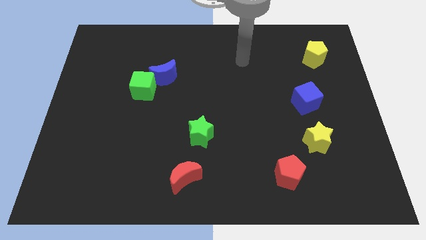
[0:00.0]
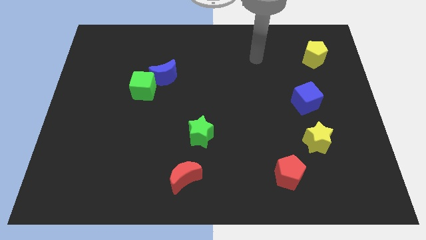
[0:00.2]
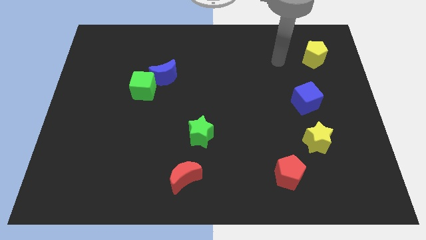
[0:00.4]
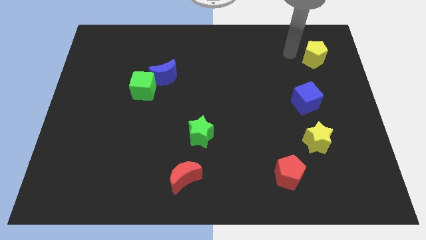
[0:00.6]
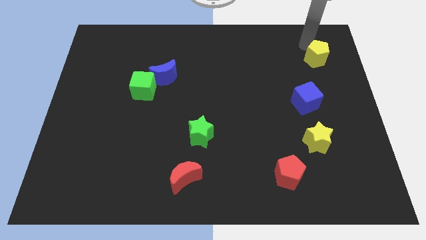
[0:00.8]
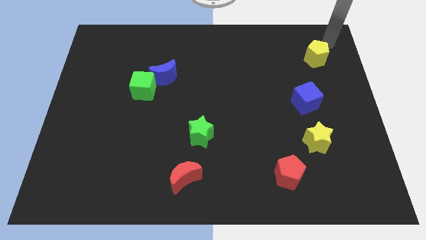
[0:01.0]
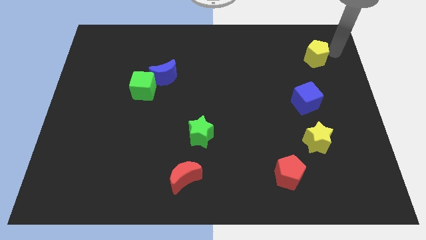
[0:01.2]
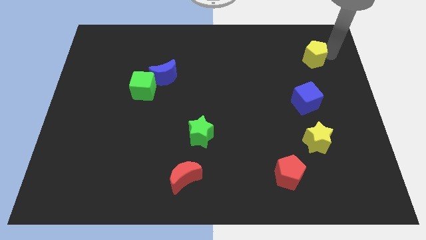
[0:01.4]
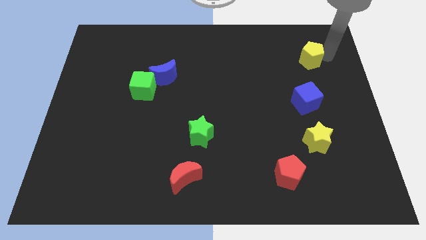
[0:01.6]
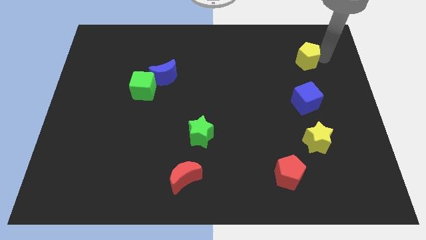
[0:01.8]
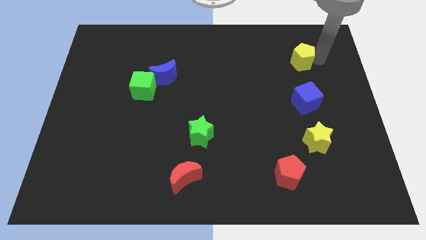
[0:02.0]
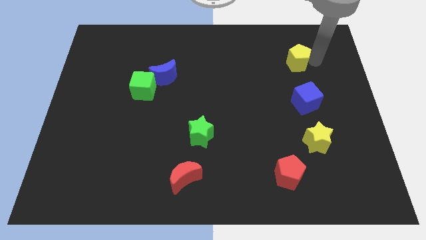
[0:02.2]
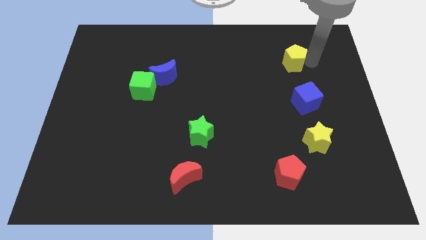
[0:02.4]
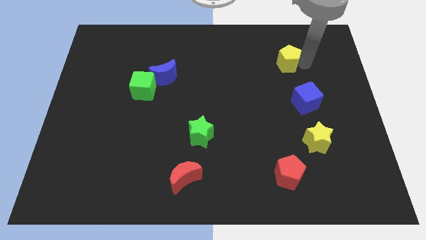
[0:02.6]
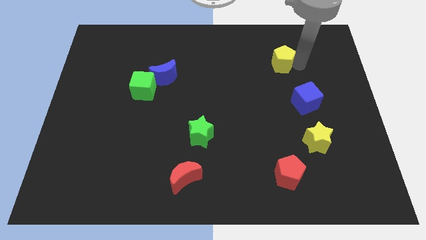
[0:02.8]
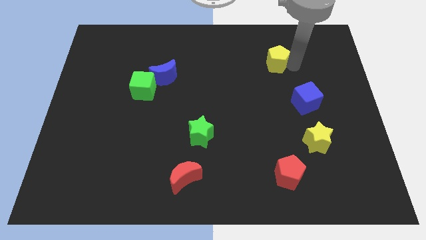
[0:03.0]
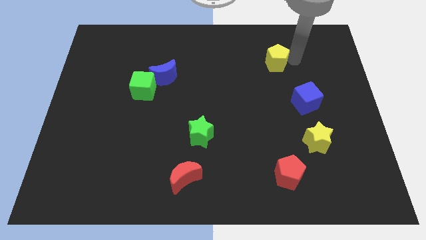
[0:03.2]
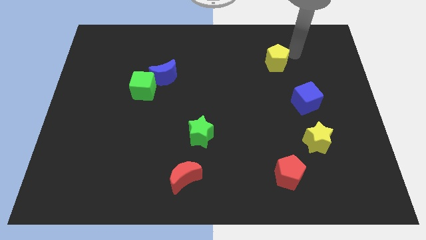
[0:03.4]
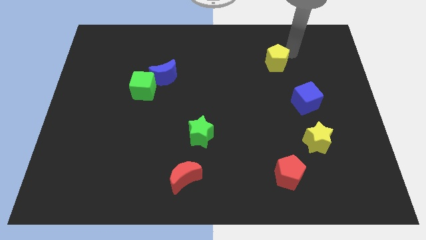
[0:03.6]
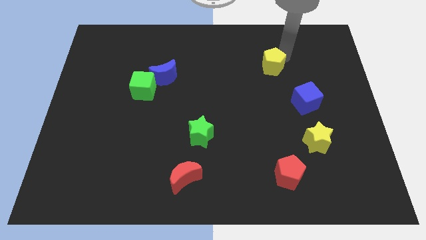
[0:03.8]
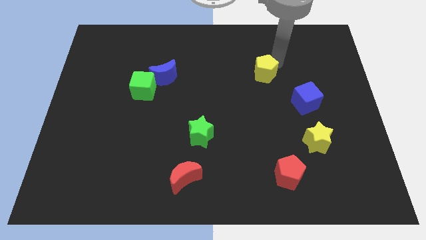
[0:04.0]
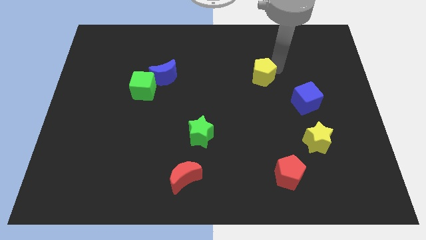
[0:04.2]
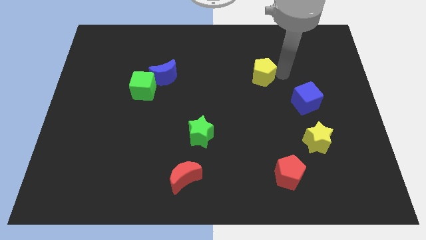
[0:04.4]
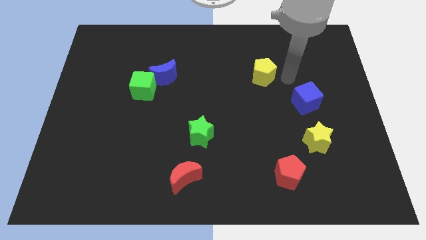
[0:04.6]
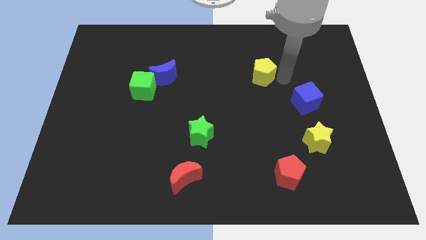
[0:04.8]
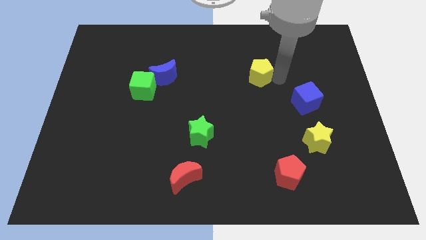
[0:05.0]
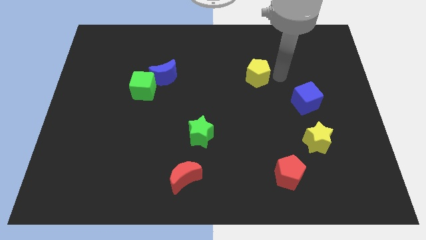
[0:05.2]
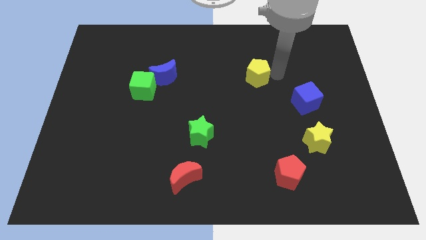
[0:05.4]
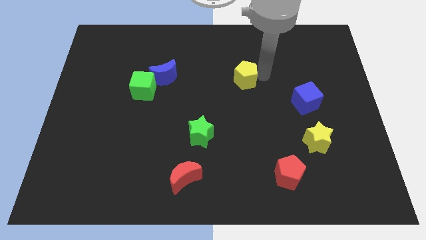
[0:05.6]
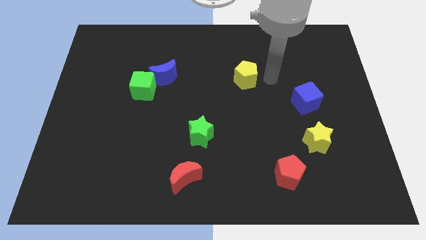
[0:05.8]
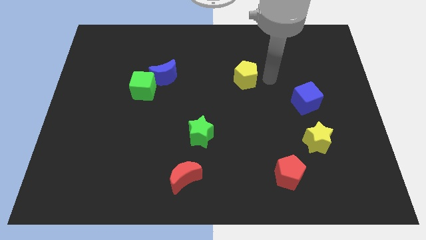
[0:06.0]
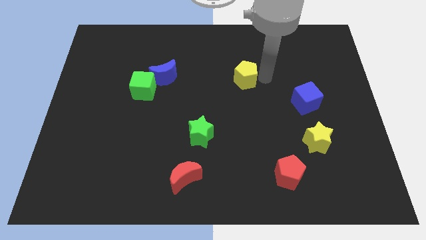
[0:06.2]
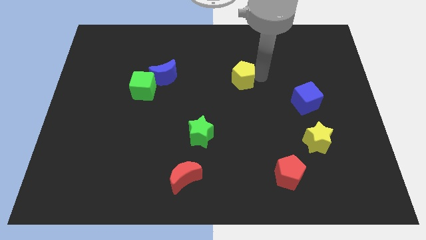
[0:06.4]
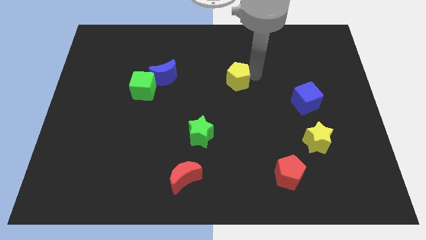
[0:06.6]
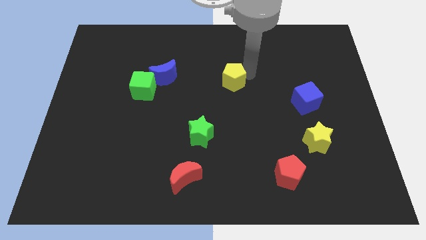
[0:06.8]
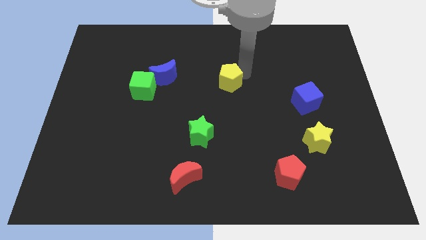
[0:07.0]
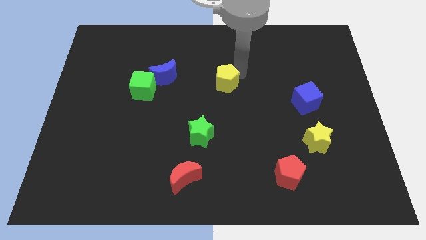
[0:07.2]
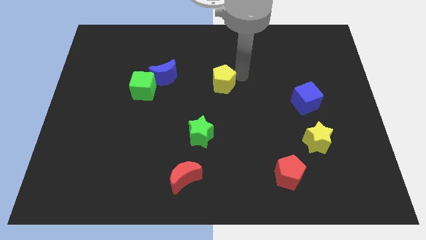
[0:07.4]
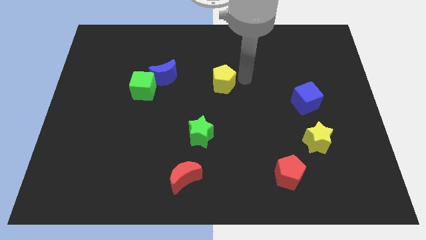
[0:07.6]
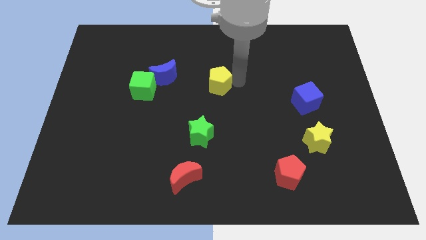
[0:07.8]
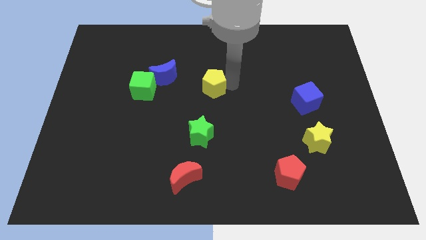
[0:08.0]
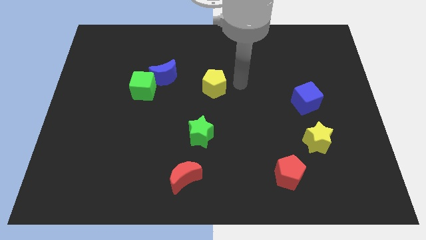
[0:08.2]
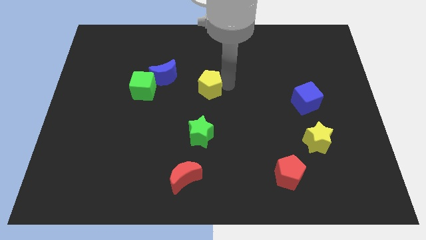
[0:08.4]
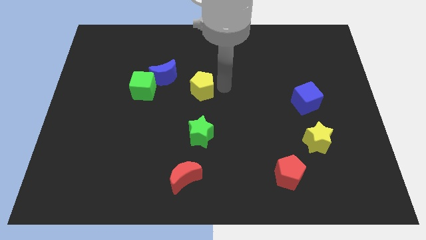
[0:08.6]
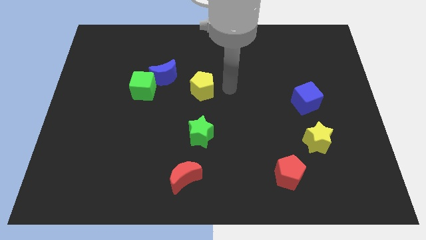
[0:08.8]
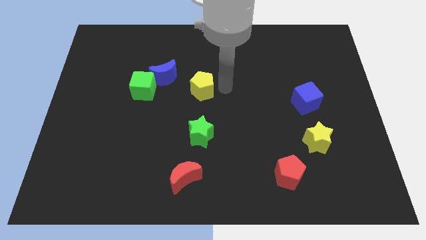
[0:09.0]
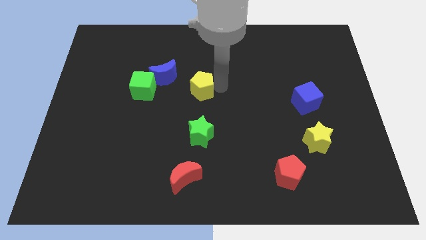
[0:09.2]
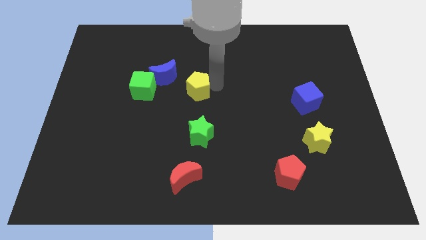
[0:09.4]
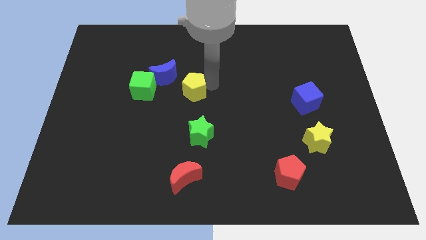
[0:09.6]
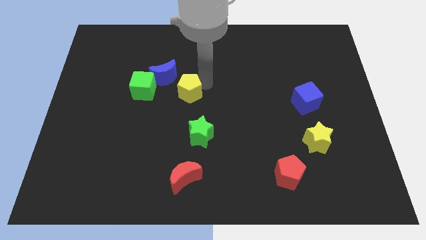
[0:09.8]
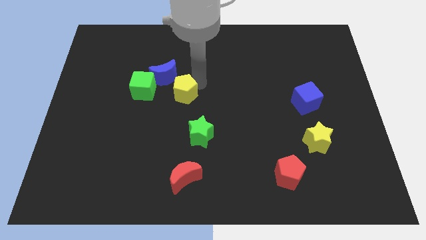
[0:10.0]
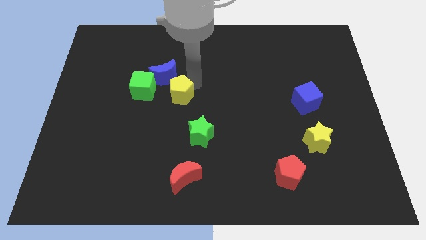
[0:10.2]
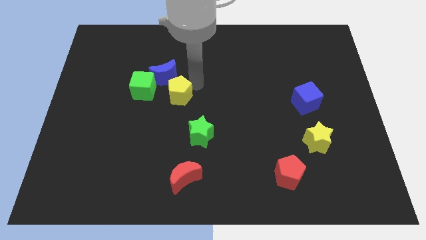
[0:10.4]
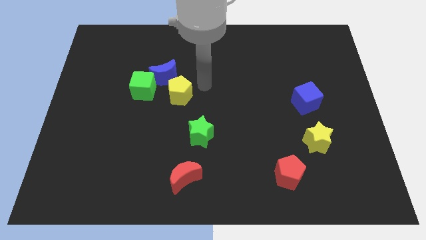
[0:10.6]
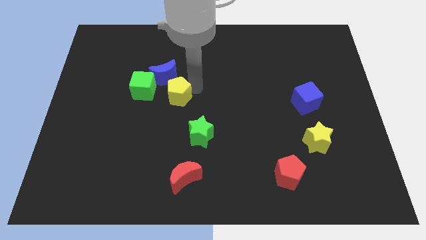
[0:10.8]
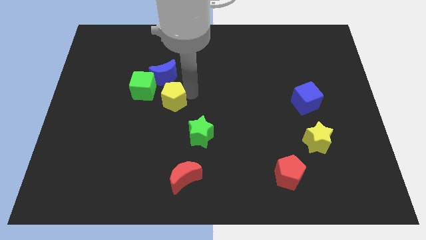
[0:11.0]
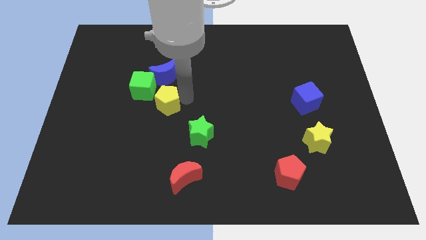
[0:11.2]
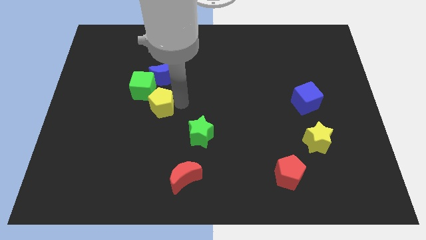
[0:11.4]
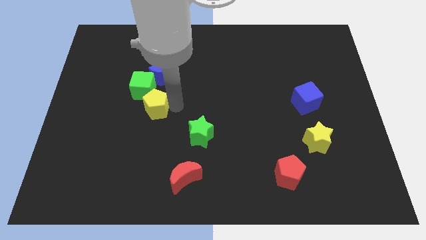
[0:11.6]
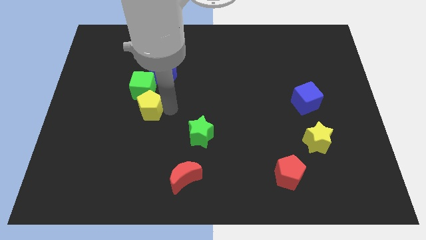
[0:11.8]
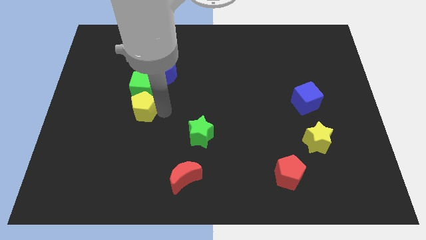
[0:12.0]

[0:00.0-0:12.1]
push the yellow pentagon close to the green cube

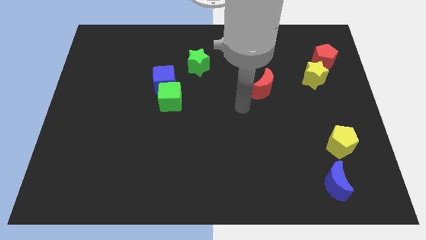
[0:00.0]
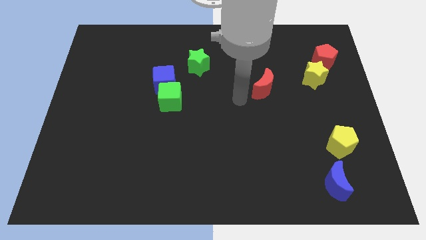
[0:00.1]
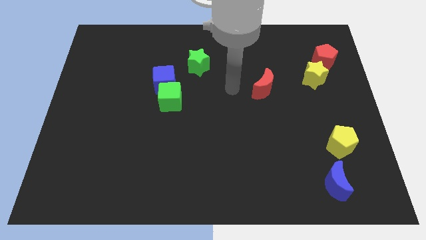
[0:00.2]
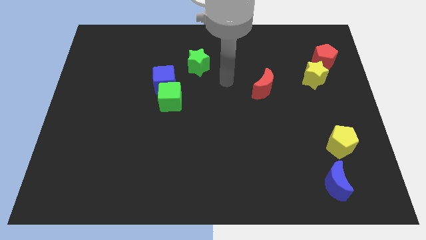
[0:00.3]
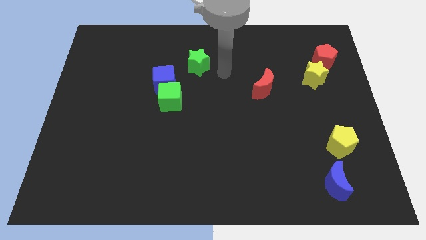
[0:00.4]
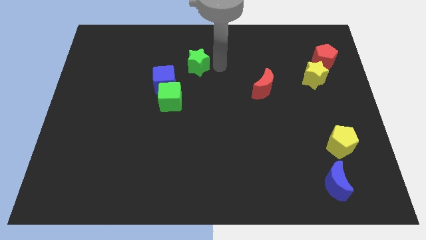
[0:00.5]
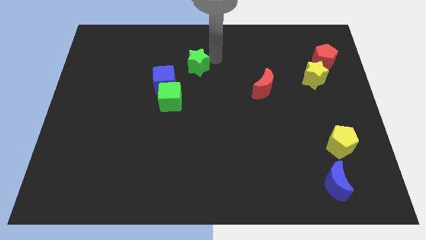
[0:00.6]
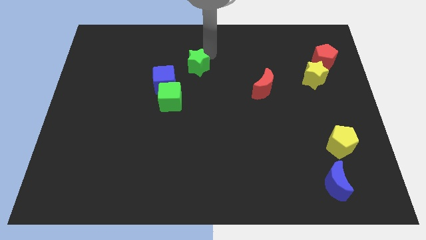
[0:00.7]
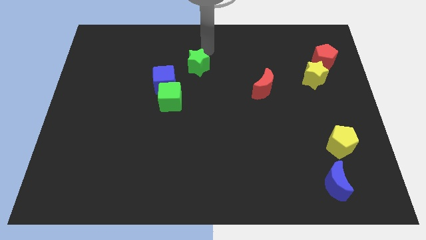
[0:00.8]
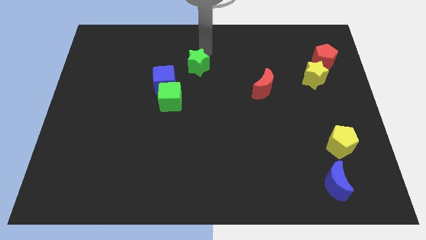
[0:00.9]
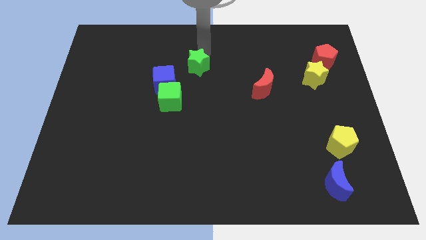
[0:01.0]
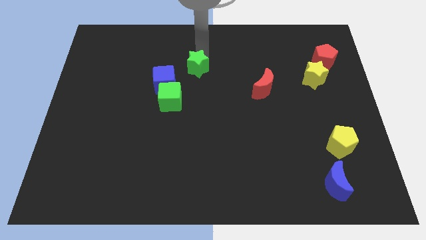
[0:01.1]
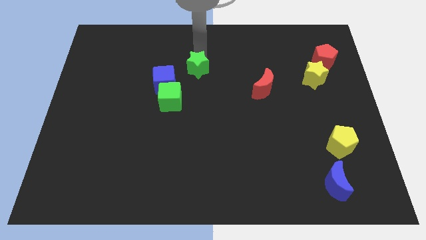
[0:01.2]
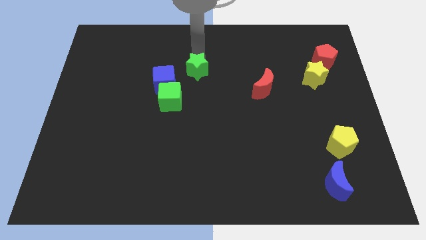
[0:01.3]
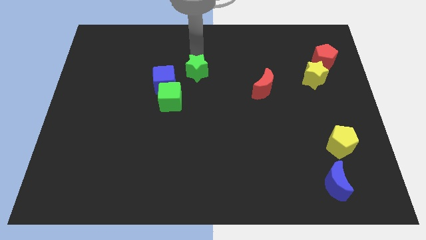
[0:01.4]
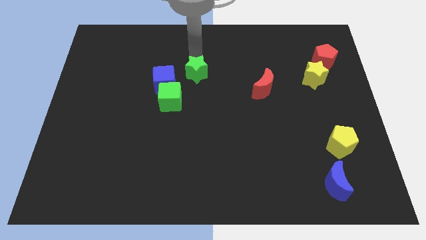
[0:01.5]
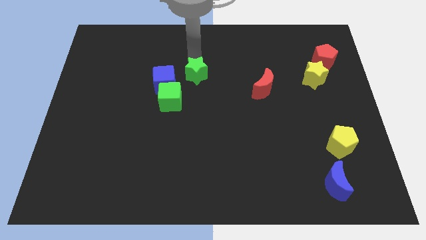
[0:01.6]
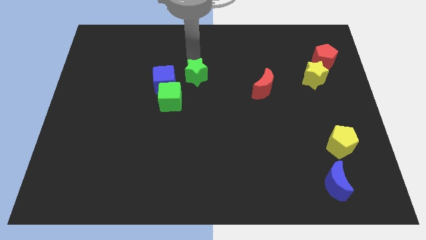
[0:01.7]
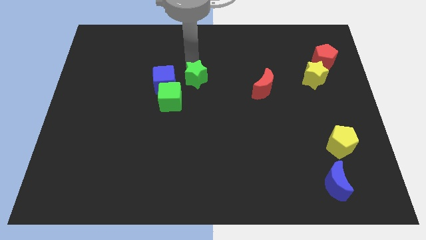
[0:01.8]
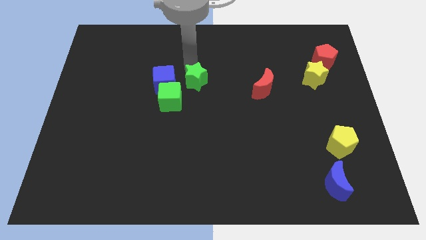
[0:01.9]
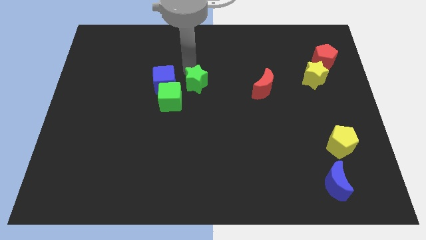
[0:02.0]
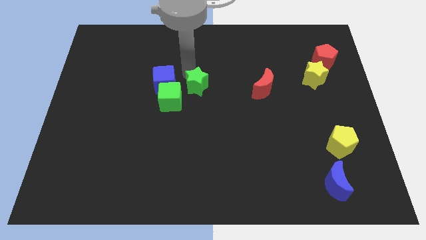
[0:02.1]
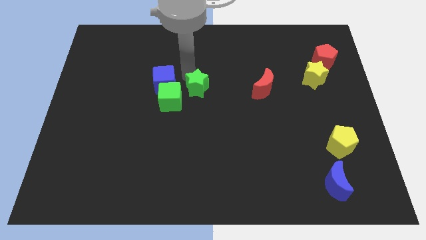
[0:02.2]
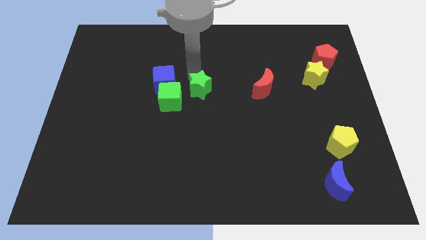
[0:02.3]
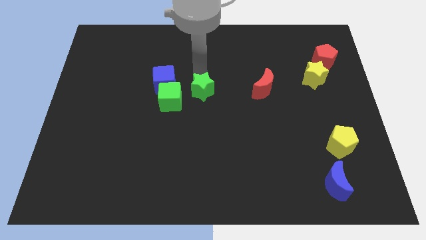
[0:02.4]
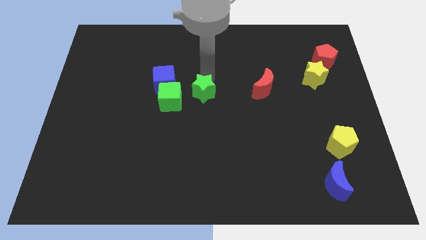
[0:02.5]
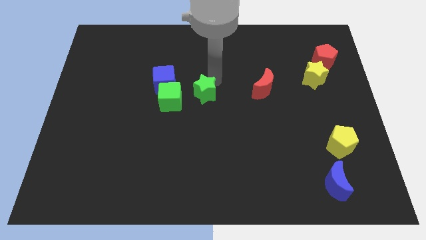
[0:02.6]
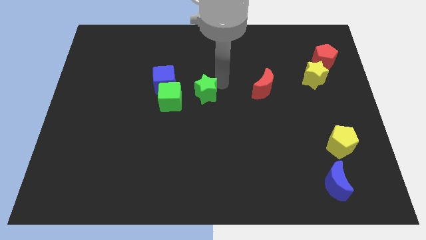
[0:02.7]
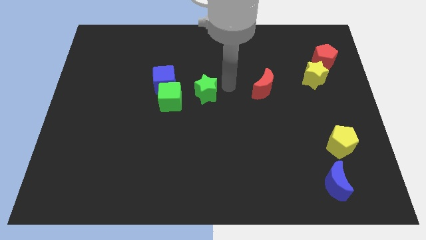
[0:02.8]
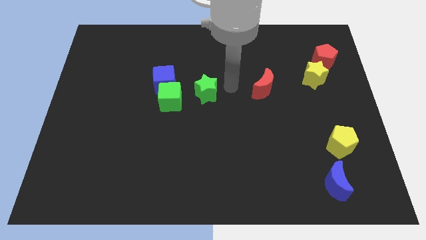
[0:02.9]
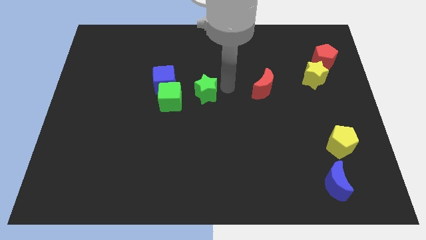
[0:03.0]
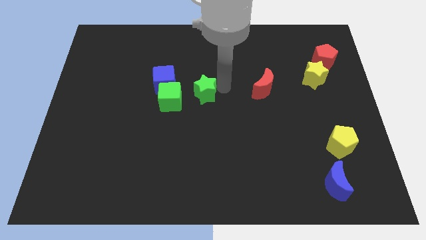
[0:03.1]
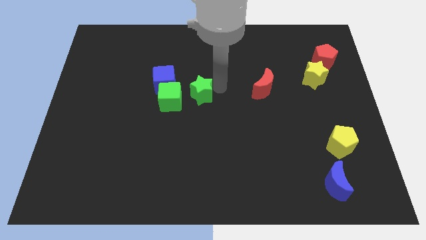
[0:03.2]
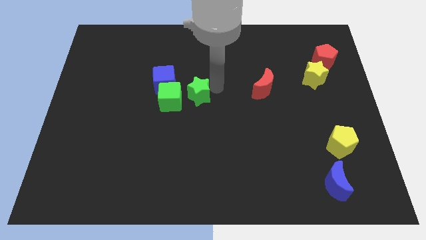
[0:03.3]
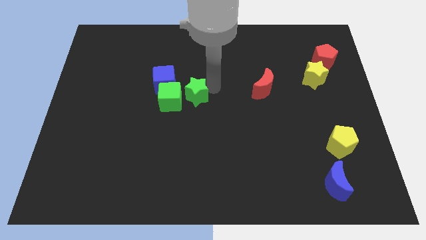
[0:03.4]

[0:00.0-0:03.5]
move the green star next to the green cube
